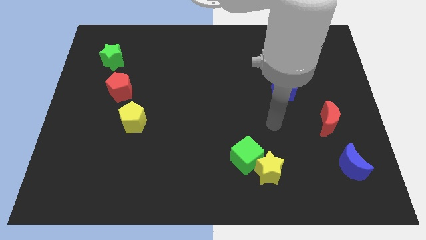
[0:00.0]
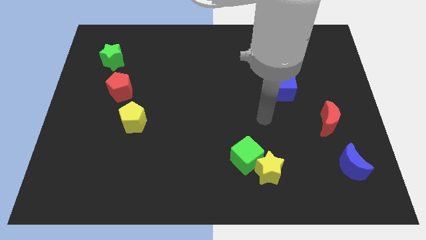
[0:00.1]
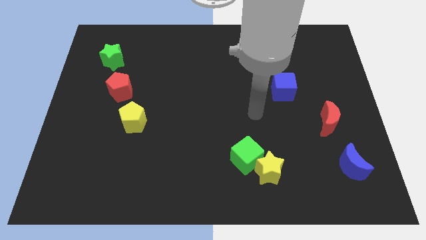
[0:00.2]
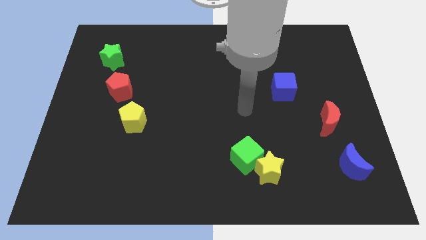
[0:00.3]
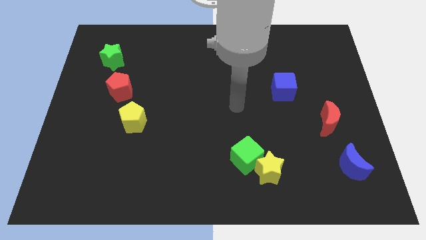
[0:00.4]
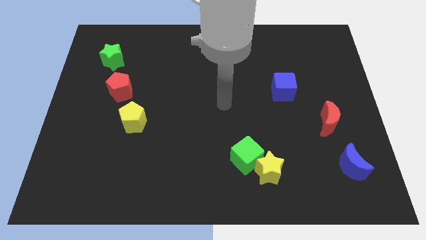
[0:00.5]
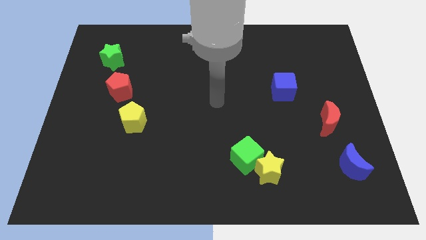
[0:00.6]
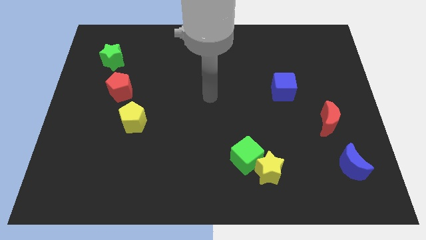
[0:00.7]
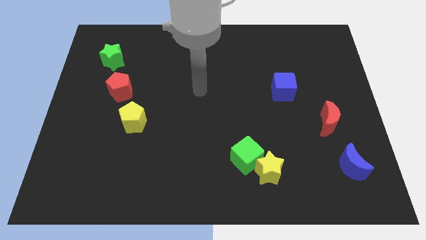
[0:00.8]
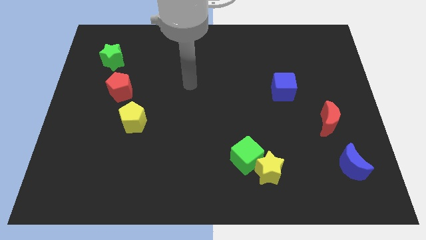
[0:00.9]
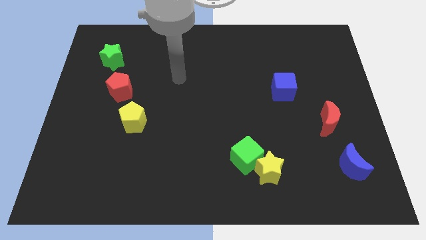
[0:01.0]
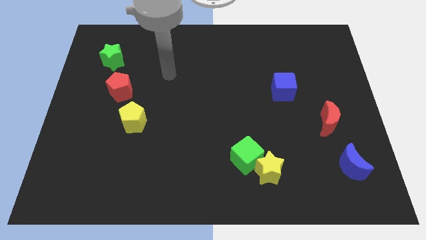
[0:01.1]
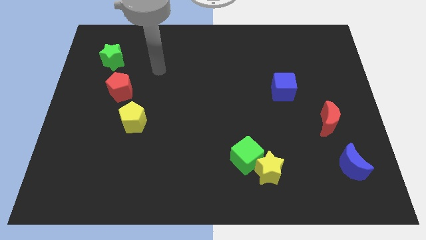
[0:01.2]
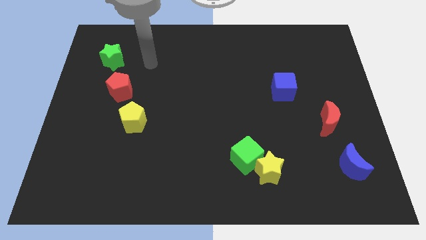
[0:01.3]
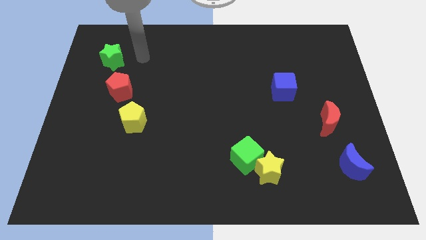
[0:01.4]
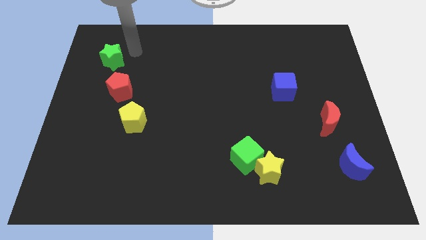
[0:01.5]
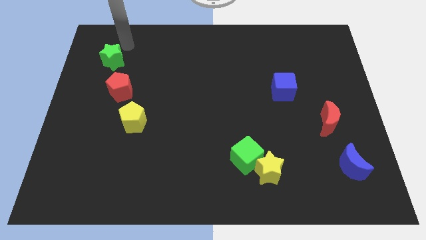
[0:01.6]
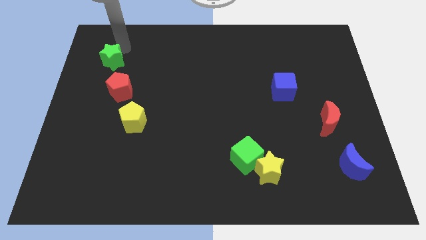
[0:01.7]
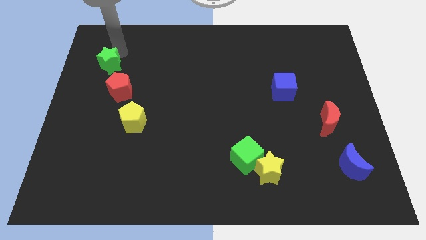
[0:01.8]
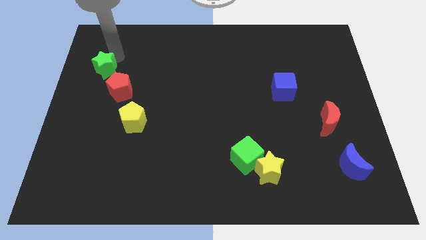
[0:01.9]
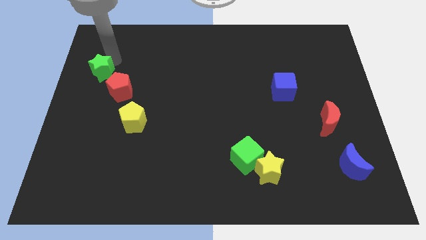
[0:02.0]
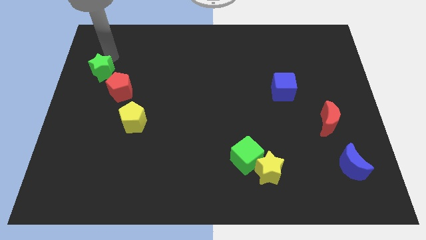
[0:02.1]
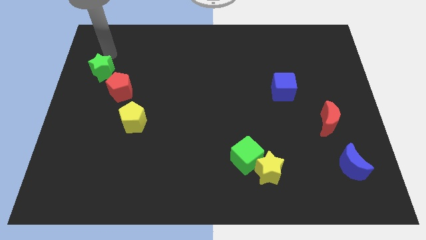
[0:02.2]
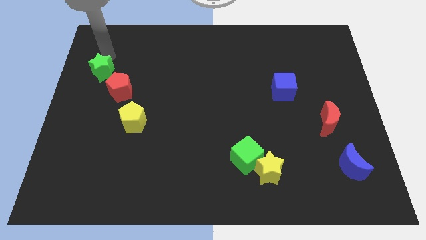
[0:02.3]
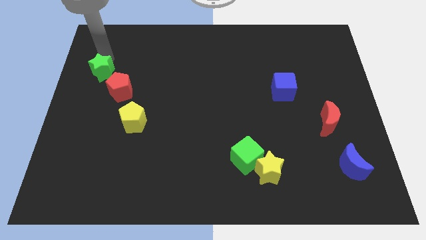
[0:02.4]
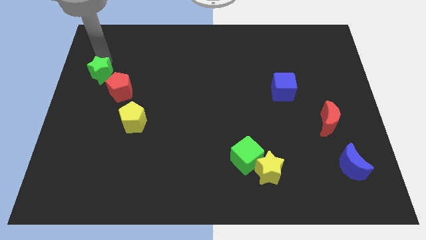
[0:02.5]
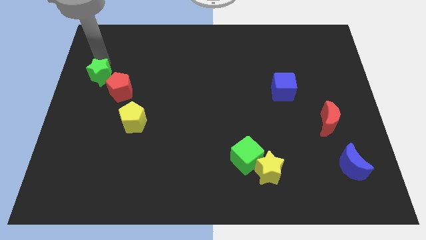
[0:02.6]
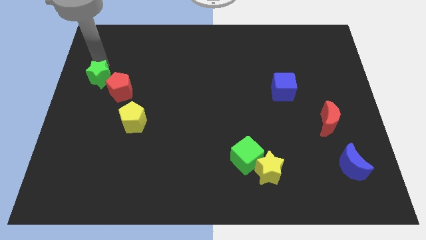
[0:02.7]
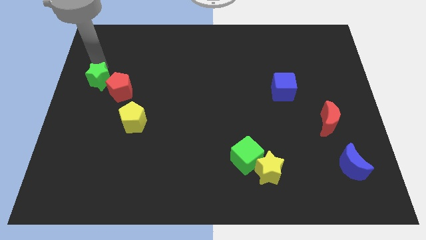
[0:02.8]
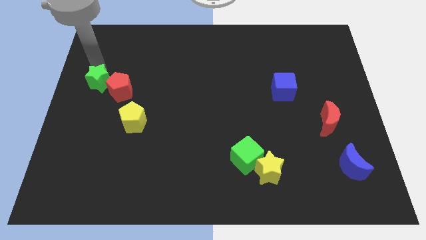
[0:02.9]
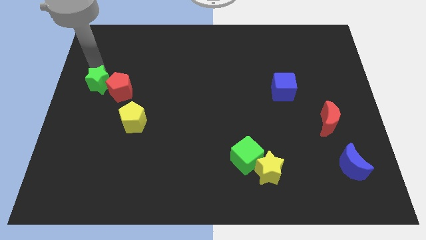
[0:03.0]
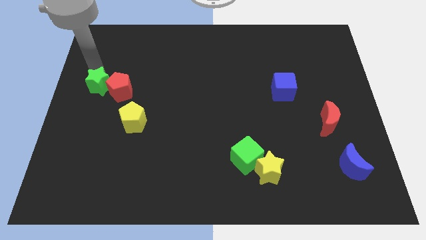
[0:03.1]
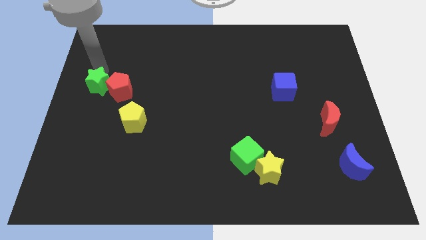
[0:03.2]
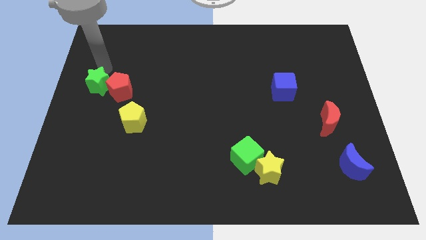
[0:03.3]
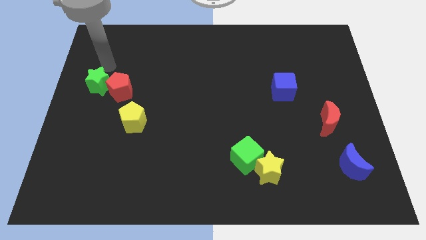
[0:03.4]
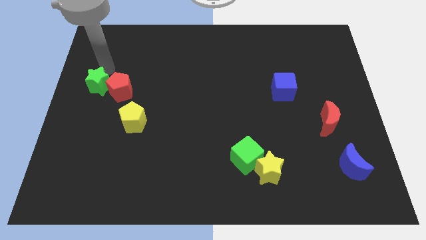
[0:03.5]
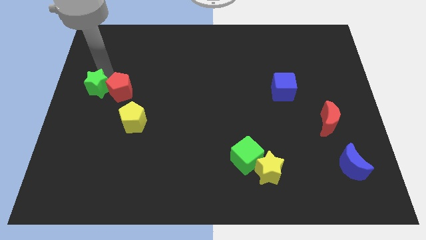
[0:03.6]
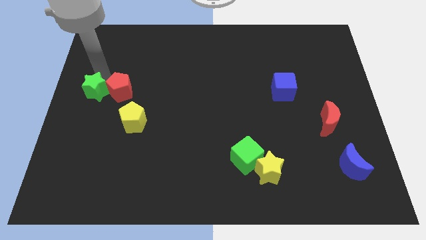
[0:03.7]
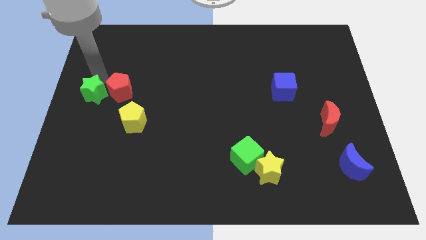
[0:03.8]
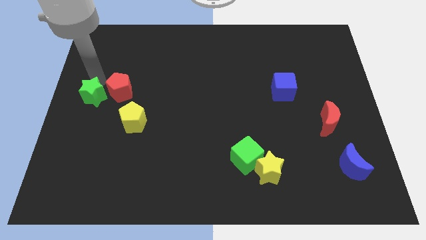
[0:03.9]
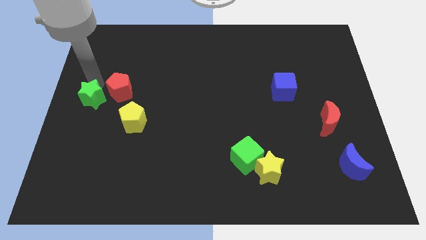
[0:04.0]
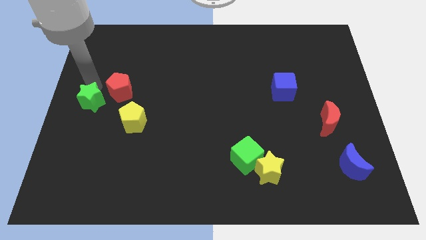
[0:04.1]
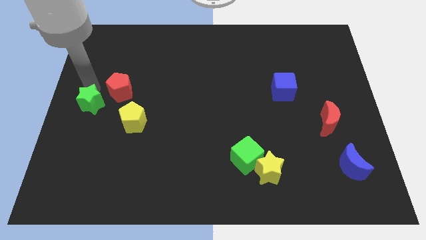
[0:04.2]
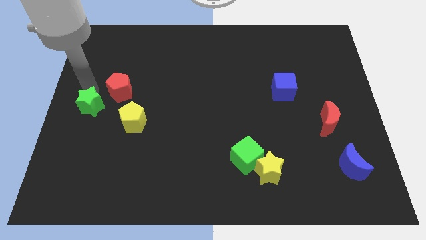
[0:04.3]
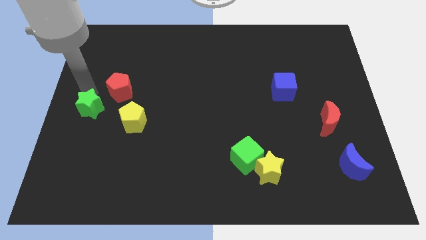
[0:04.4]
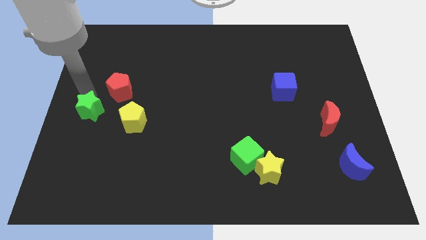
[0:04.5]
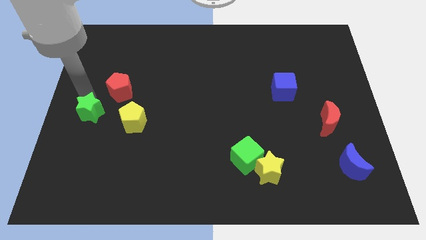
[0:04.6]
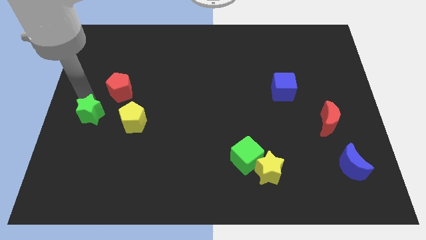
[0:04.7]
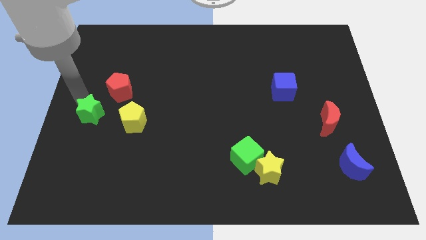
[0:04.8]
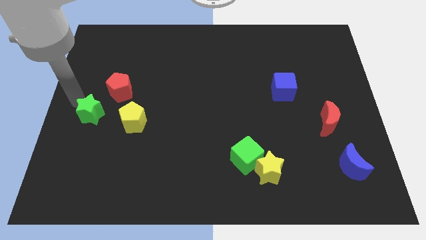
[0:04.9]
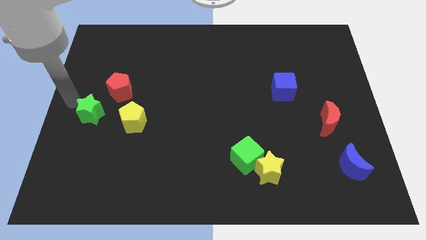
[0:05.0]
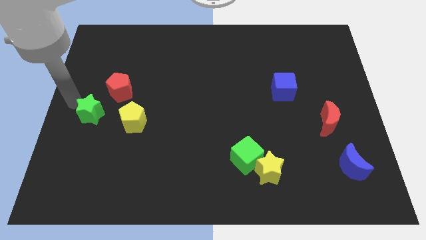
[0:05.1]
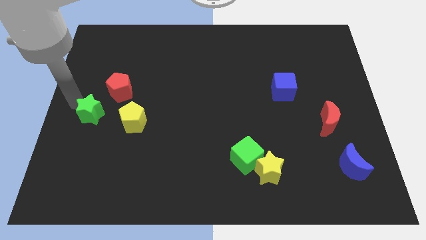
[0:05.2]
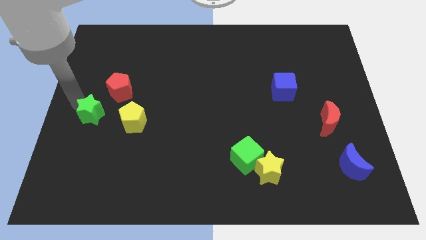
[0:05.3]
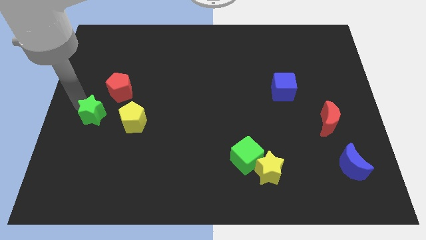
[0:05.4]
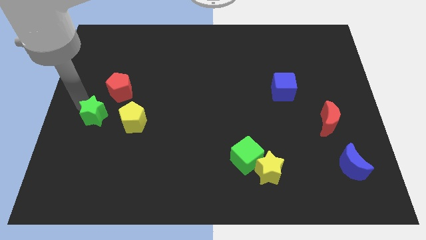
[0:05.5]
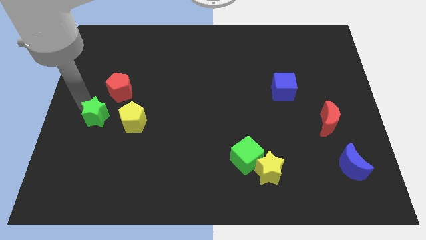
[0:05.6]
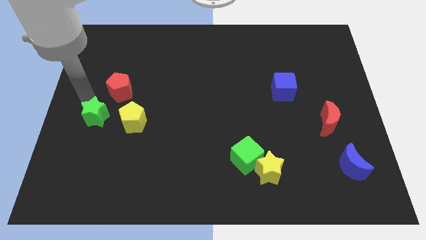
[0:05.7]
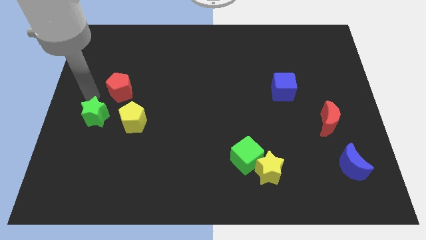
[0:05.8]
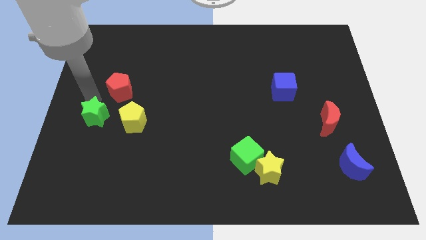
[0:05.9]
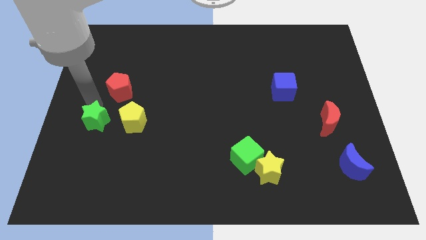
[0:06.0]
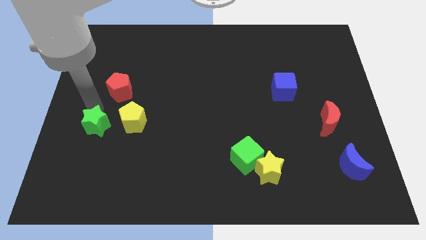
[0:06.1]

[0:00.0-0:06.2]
push the green star down

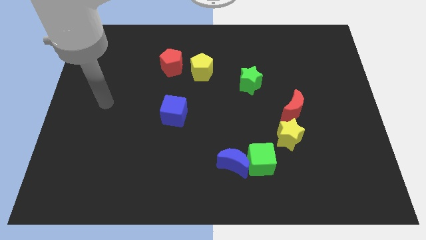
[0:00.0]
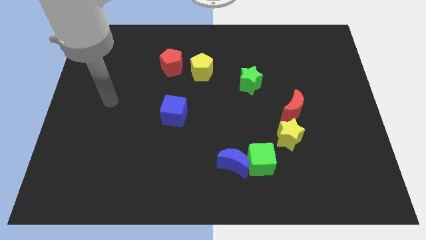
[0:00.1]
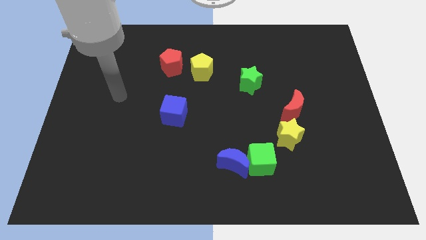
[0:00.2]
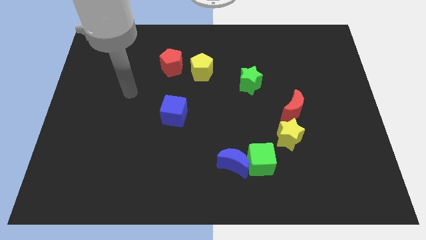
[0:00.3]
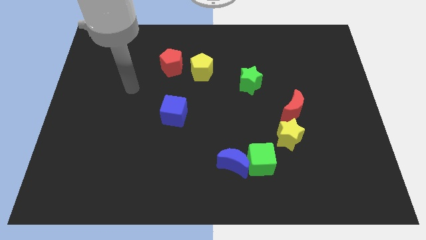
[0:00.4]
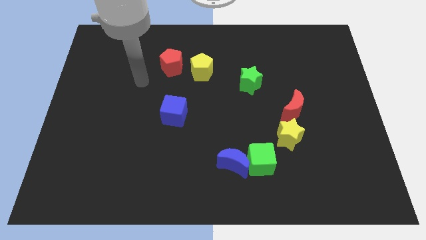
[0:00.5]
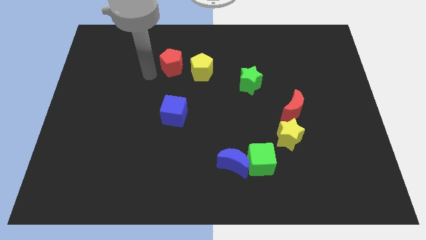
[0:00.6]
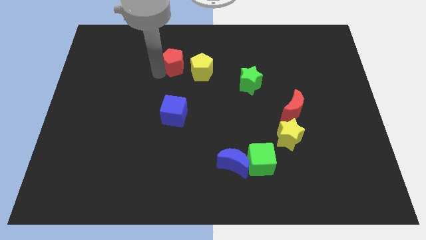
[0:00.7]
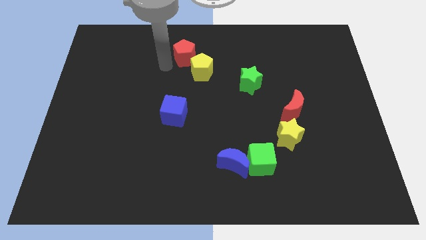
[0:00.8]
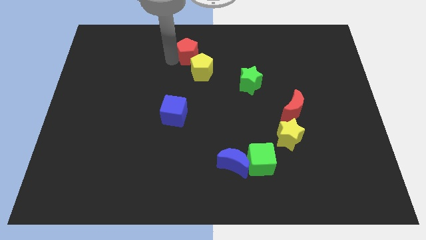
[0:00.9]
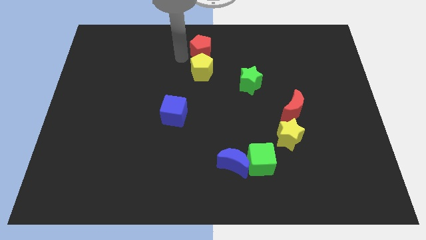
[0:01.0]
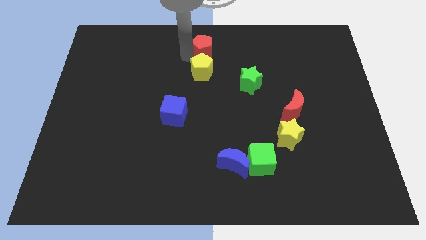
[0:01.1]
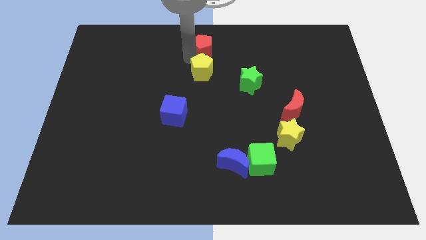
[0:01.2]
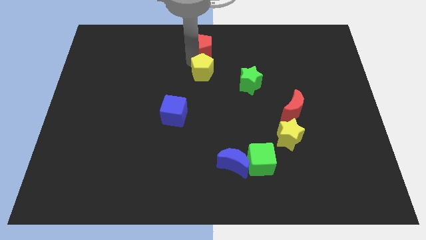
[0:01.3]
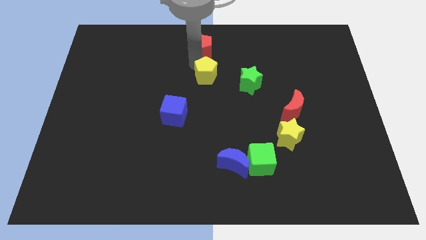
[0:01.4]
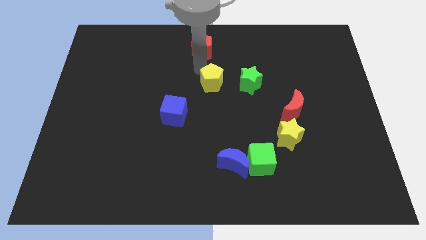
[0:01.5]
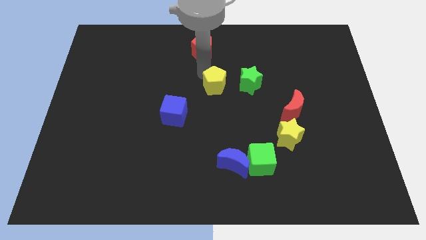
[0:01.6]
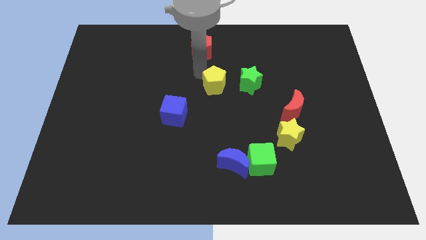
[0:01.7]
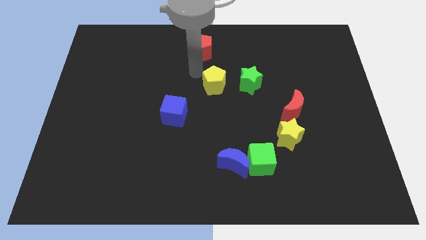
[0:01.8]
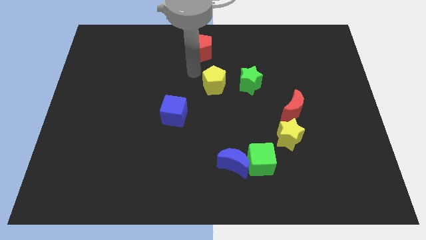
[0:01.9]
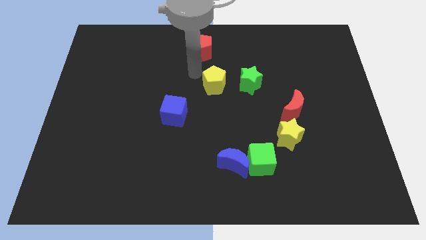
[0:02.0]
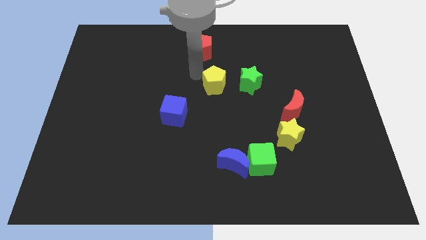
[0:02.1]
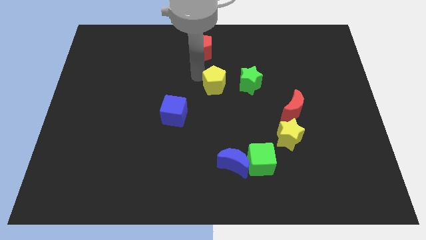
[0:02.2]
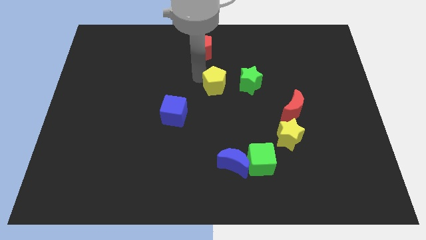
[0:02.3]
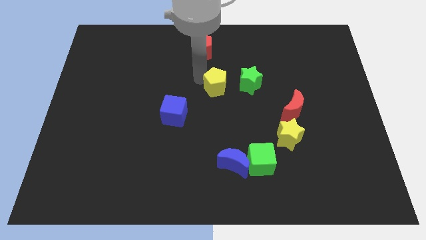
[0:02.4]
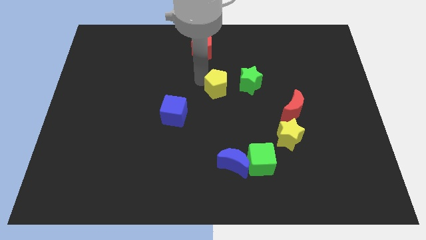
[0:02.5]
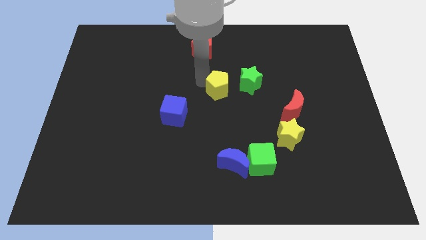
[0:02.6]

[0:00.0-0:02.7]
move the yellow pentagon down and right diagonally slightly
